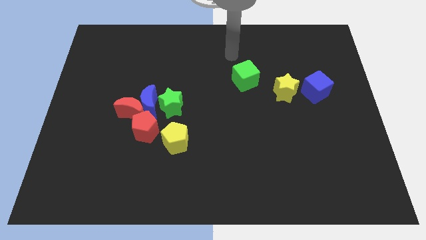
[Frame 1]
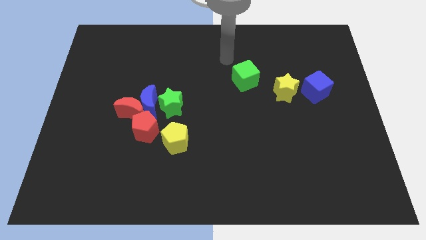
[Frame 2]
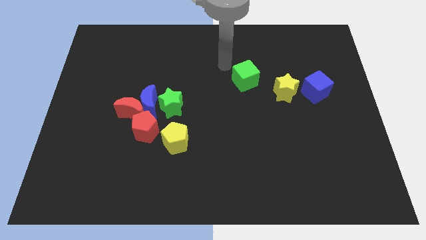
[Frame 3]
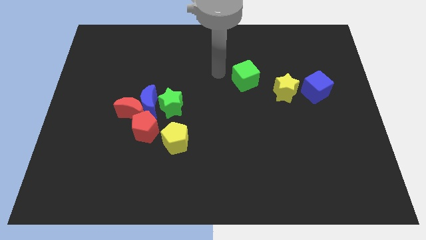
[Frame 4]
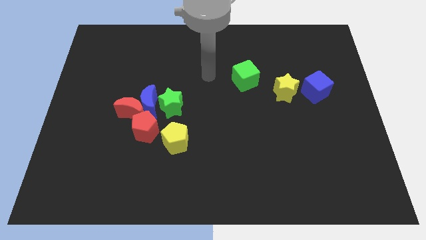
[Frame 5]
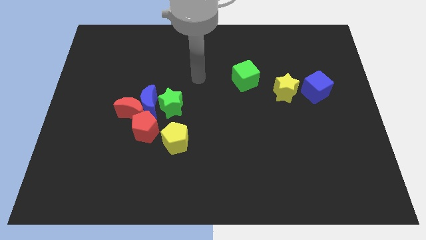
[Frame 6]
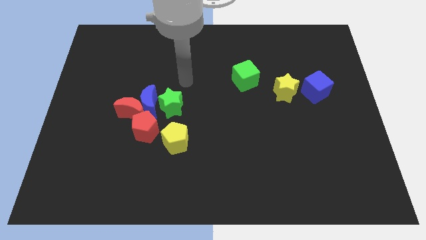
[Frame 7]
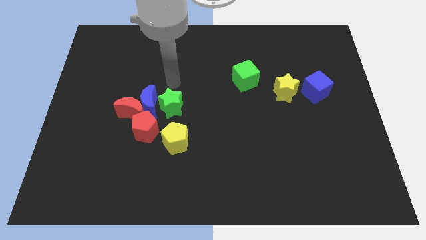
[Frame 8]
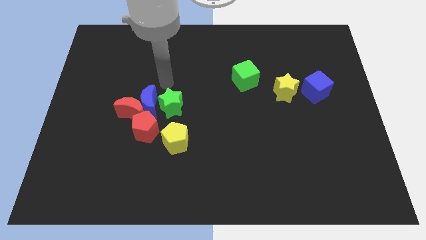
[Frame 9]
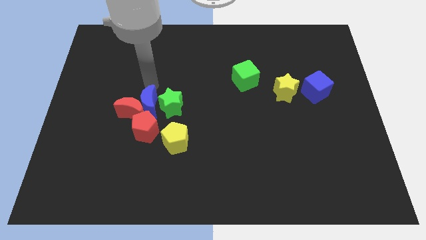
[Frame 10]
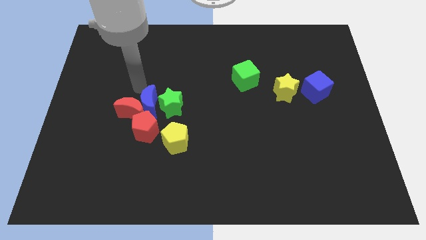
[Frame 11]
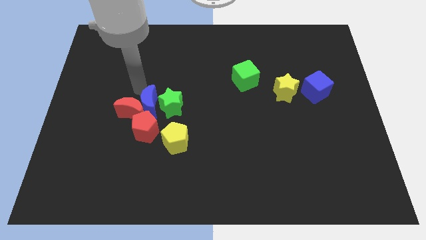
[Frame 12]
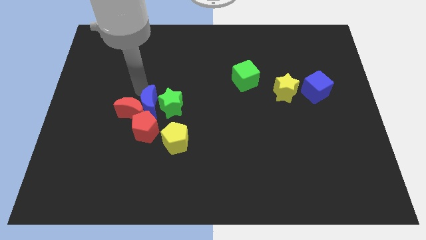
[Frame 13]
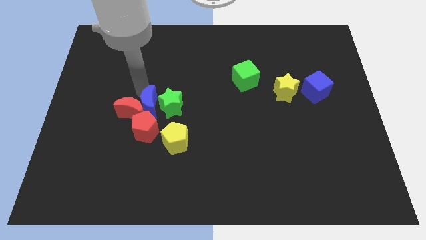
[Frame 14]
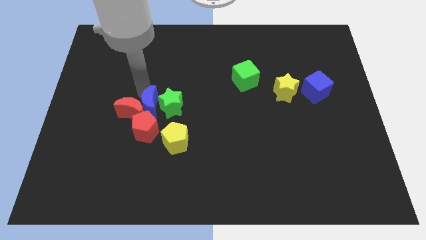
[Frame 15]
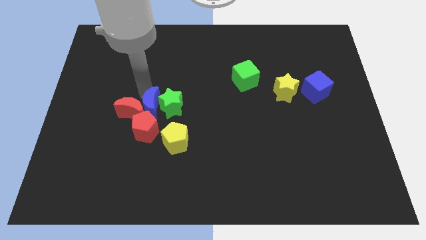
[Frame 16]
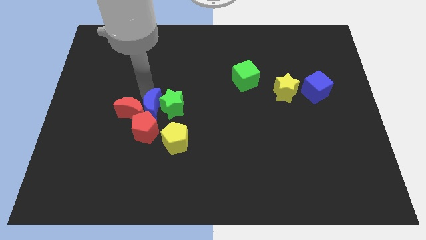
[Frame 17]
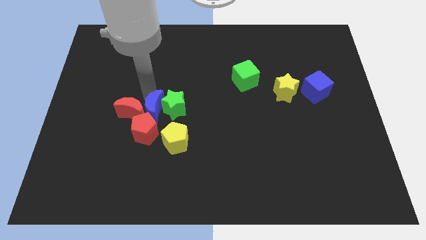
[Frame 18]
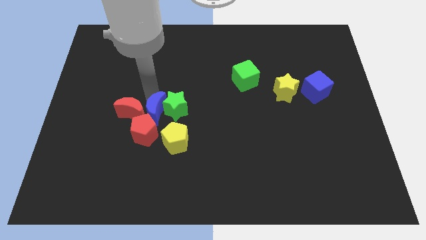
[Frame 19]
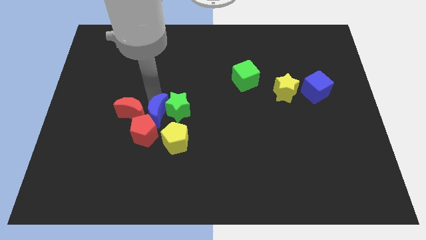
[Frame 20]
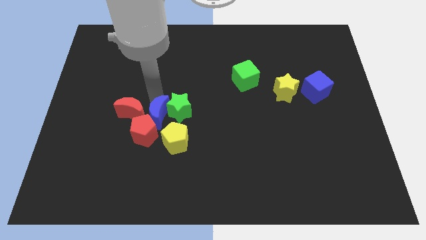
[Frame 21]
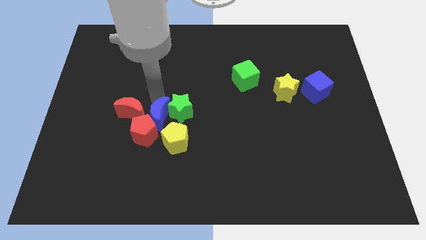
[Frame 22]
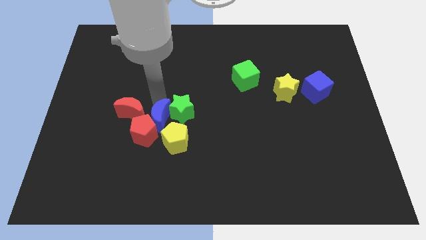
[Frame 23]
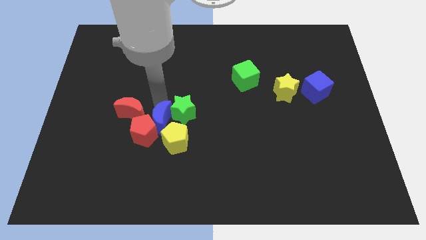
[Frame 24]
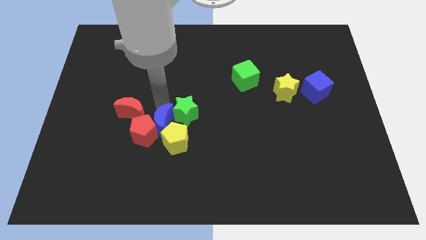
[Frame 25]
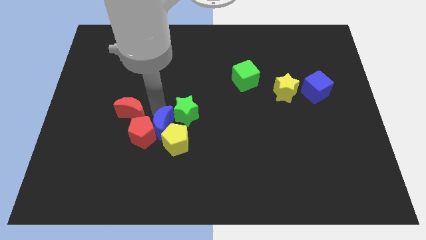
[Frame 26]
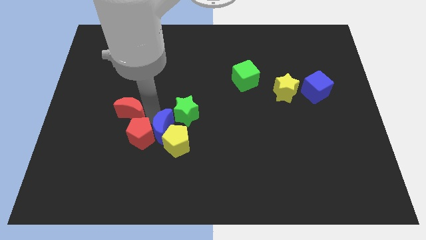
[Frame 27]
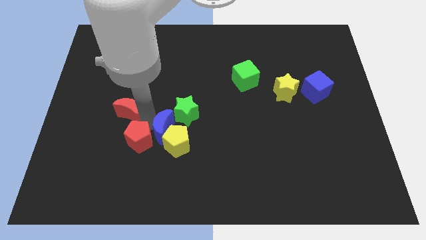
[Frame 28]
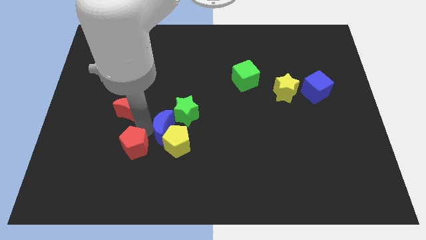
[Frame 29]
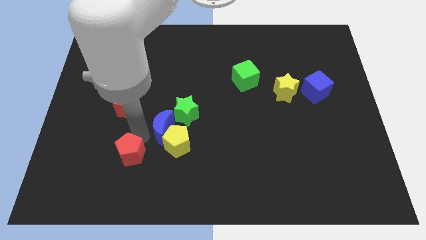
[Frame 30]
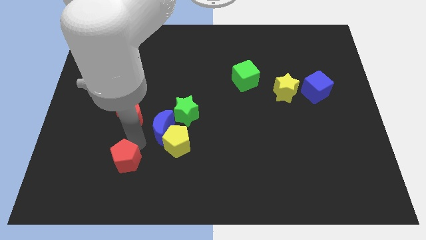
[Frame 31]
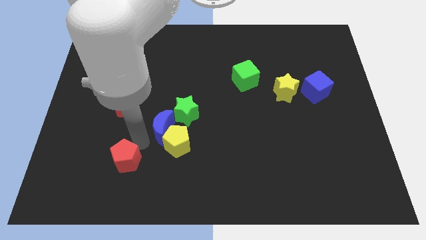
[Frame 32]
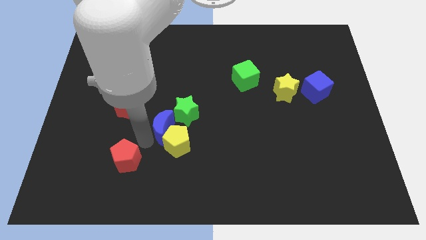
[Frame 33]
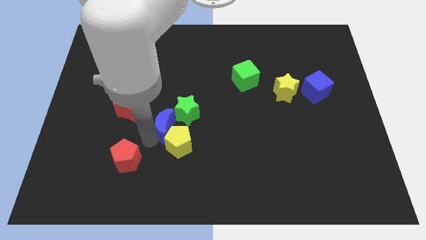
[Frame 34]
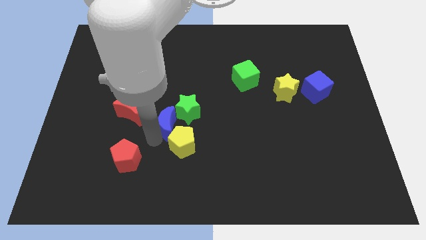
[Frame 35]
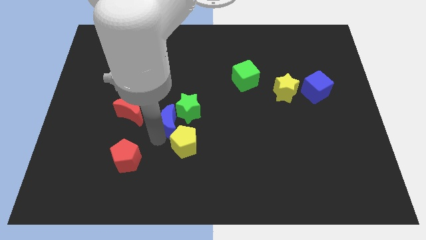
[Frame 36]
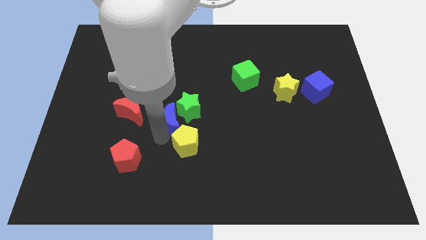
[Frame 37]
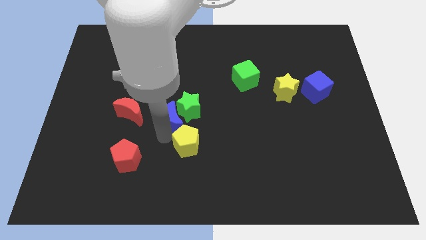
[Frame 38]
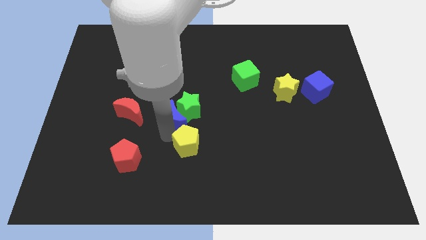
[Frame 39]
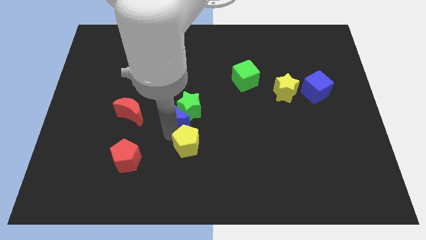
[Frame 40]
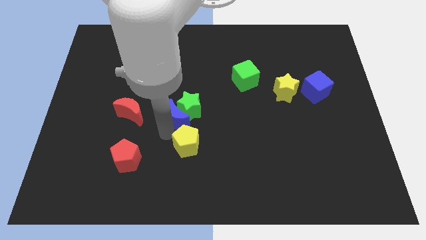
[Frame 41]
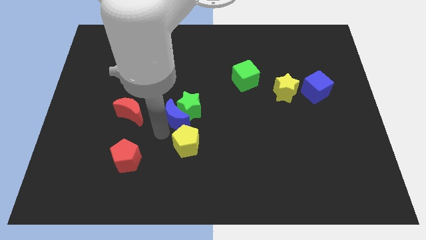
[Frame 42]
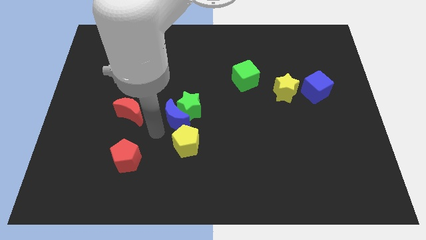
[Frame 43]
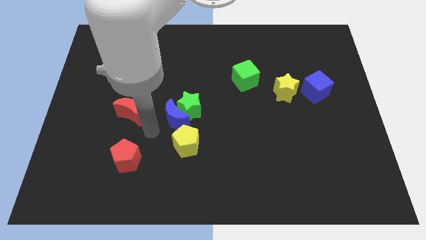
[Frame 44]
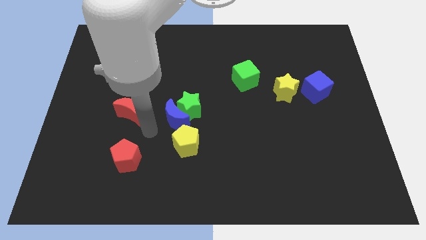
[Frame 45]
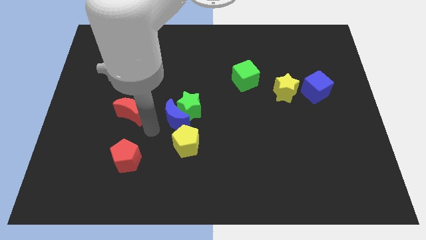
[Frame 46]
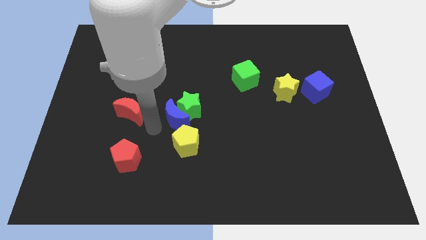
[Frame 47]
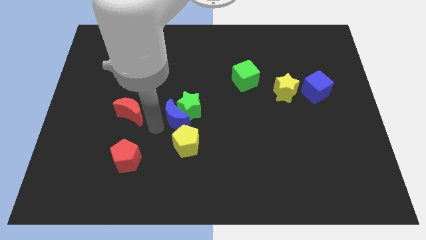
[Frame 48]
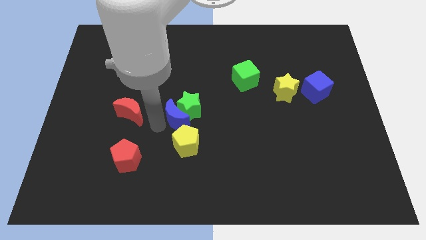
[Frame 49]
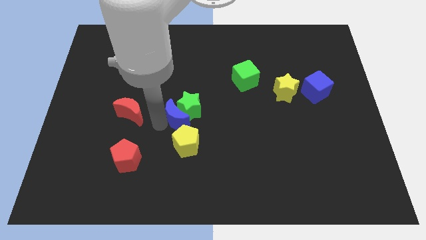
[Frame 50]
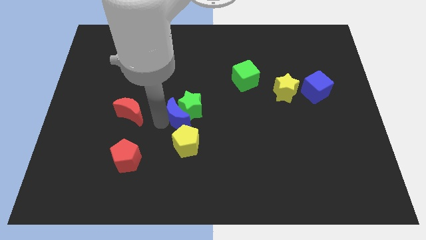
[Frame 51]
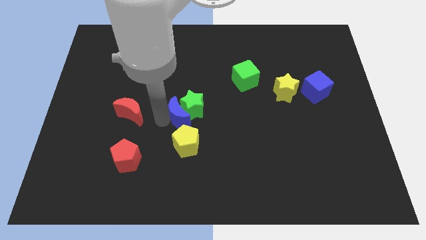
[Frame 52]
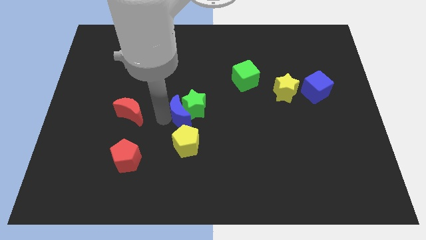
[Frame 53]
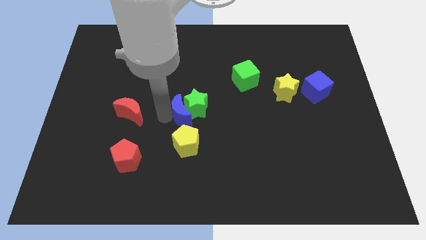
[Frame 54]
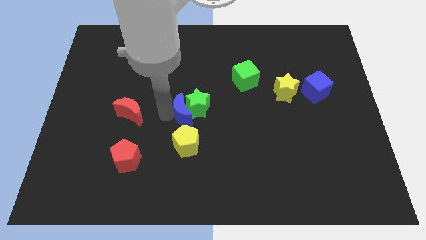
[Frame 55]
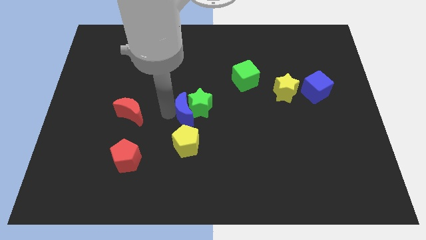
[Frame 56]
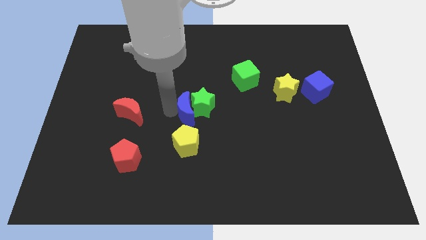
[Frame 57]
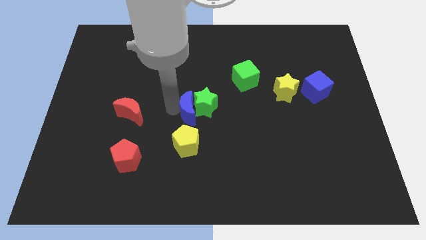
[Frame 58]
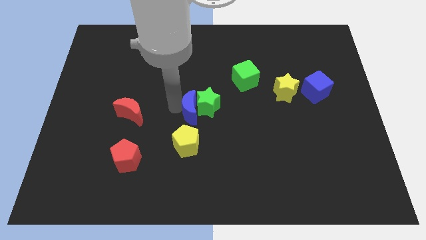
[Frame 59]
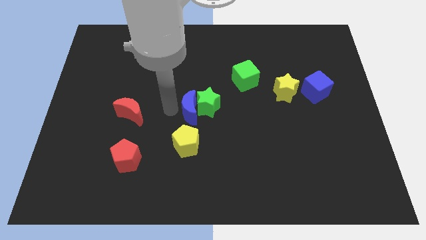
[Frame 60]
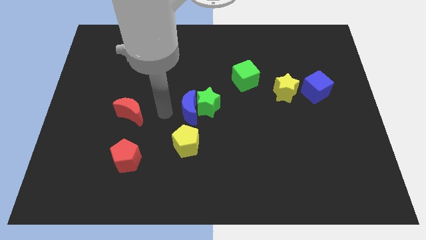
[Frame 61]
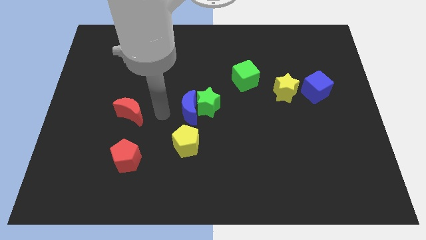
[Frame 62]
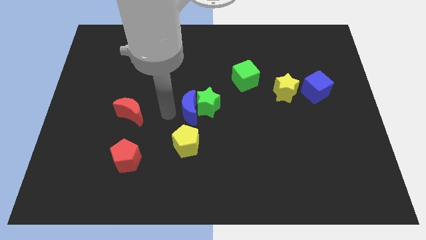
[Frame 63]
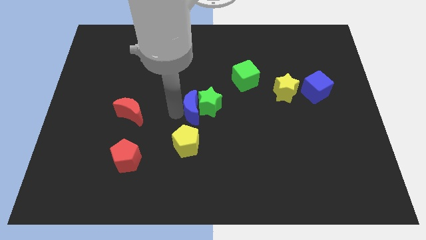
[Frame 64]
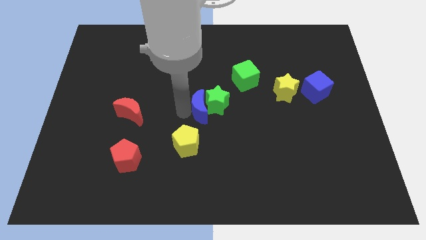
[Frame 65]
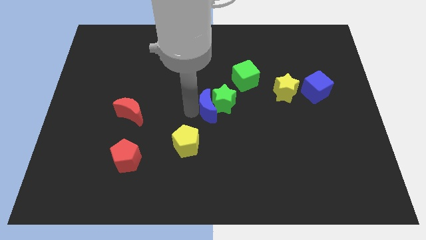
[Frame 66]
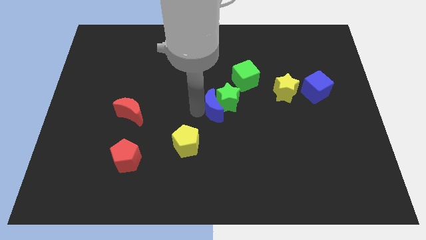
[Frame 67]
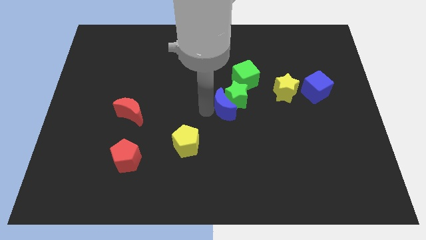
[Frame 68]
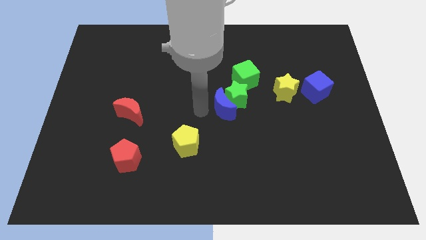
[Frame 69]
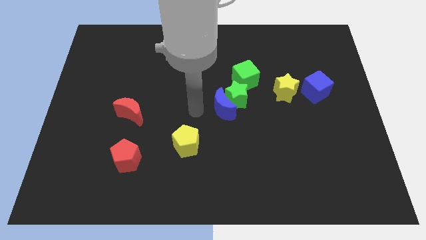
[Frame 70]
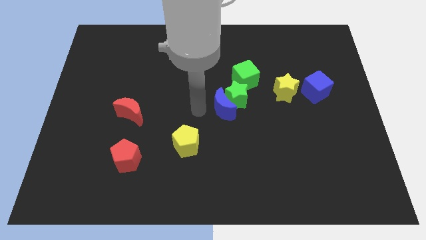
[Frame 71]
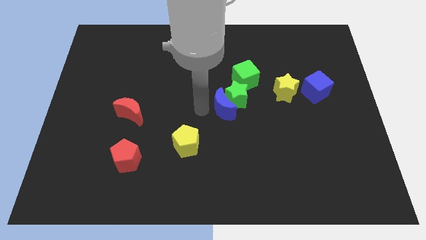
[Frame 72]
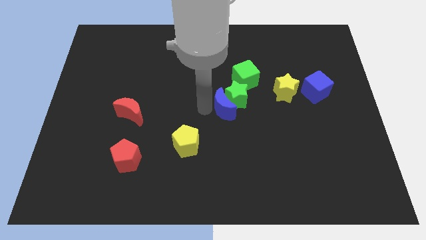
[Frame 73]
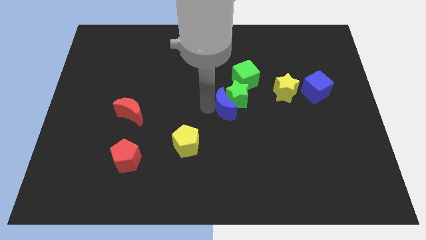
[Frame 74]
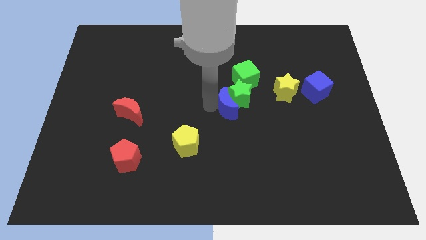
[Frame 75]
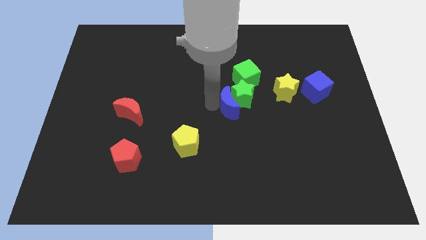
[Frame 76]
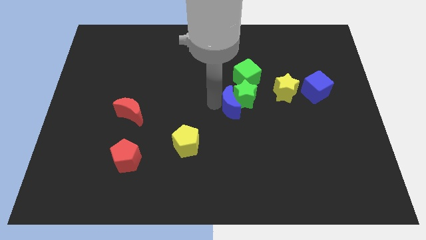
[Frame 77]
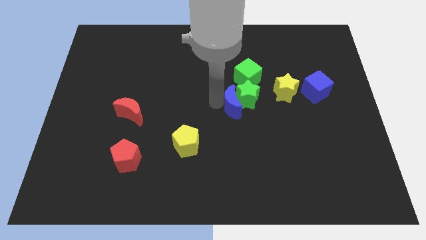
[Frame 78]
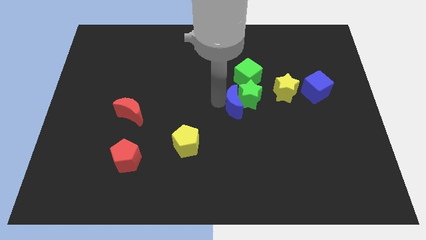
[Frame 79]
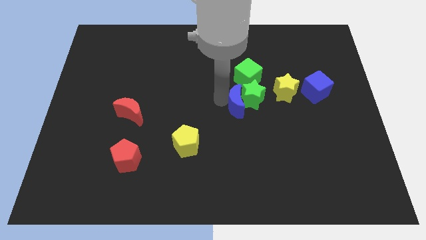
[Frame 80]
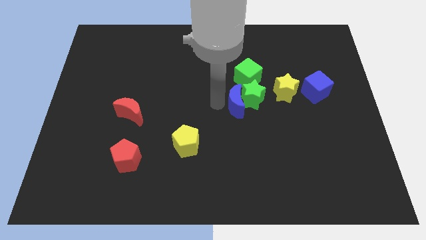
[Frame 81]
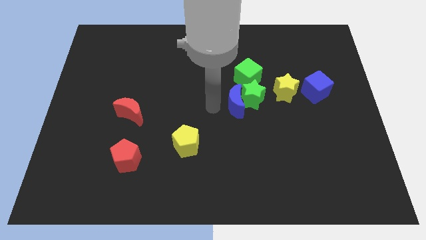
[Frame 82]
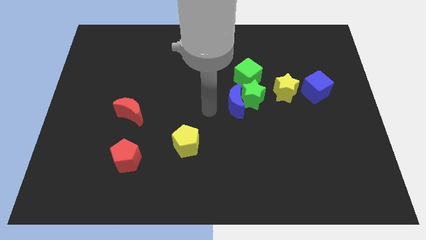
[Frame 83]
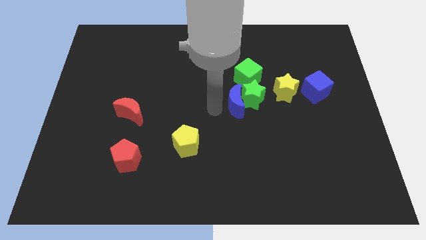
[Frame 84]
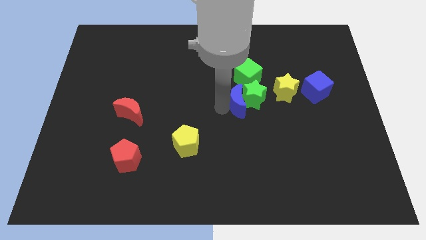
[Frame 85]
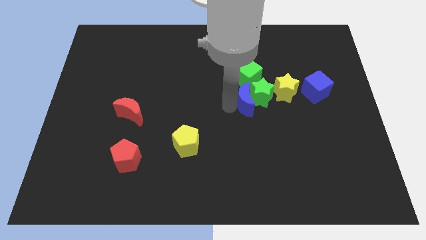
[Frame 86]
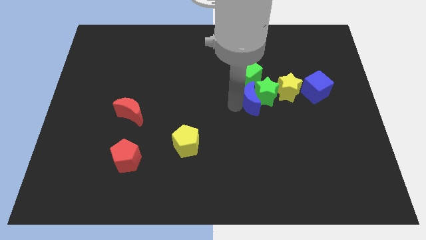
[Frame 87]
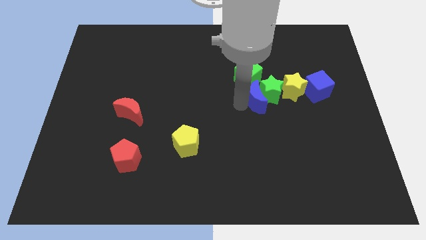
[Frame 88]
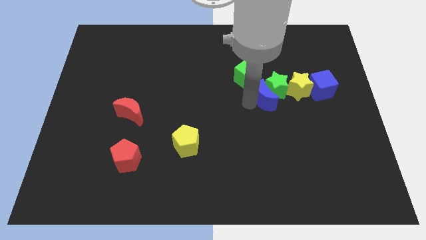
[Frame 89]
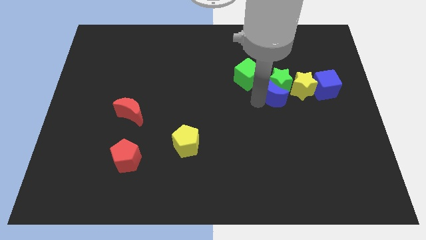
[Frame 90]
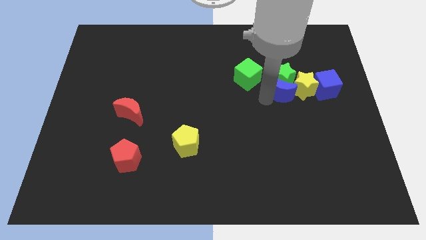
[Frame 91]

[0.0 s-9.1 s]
slide the blue moon to the yellow star
